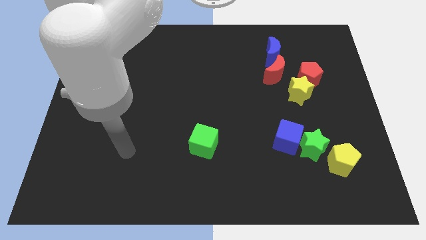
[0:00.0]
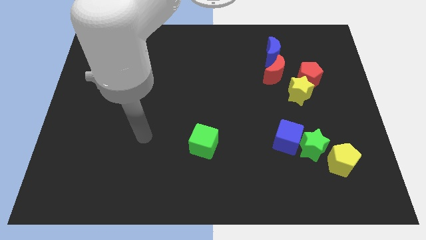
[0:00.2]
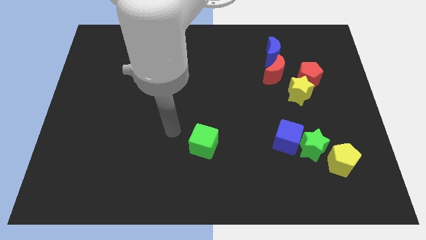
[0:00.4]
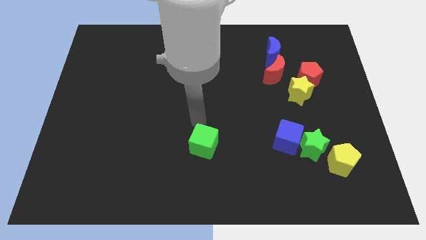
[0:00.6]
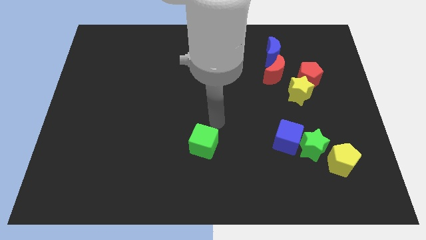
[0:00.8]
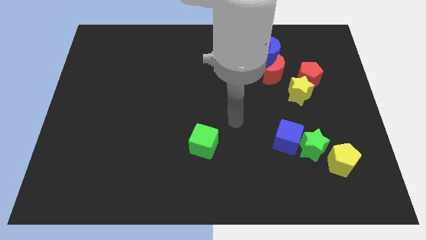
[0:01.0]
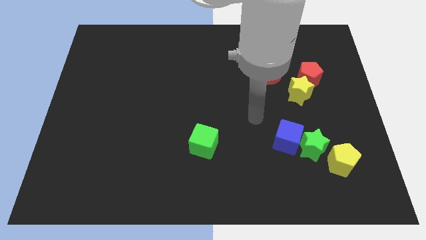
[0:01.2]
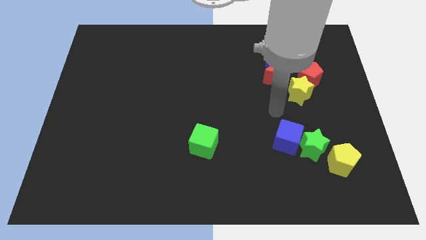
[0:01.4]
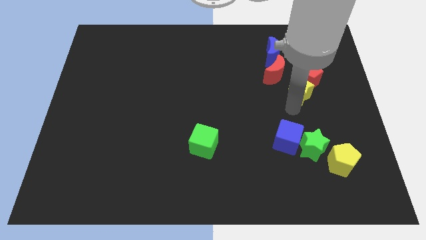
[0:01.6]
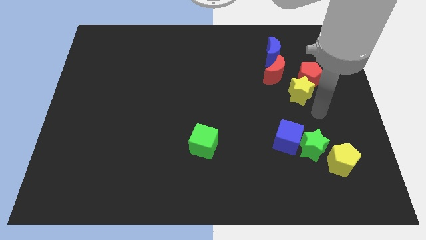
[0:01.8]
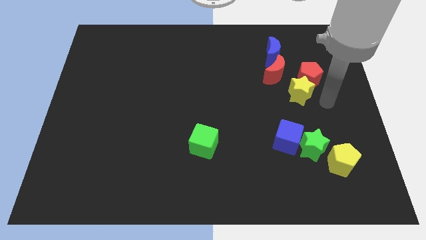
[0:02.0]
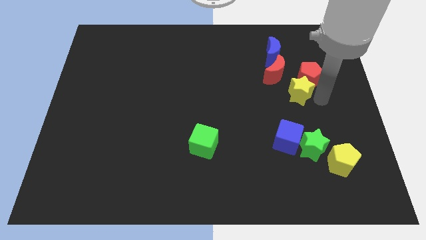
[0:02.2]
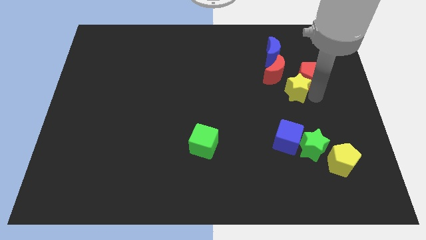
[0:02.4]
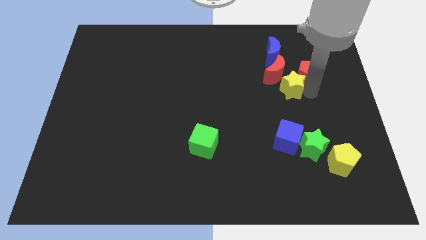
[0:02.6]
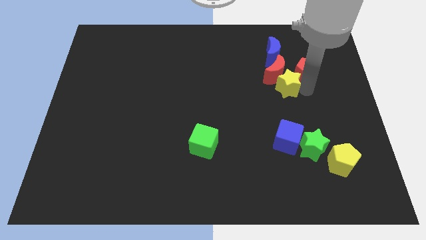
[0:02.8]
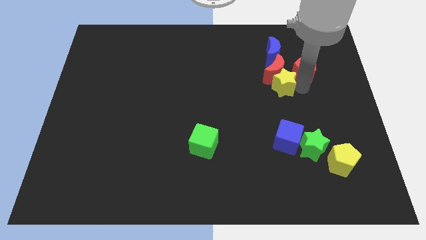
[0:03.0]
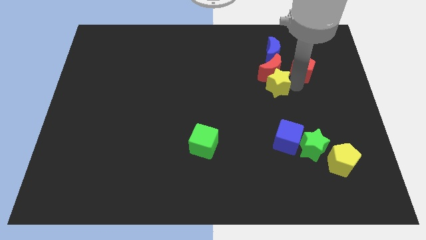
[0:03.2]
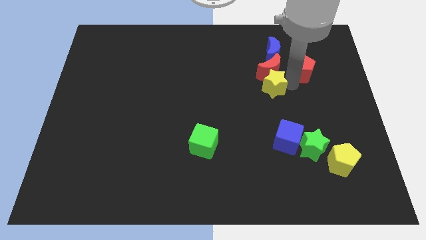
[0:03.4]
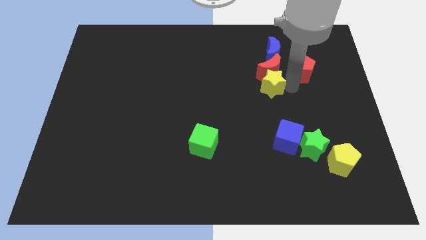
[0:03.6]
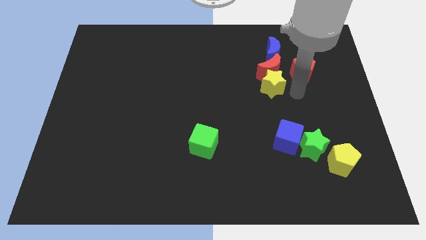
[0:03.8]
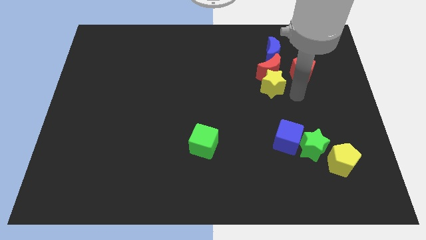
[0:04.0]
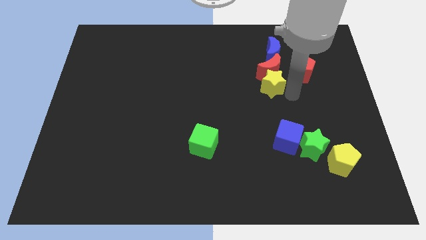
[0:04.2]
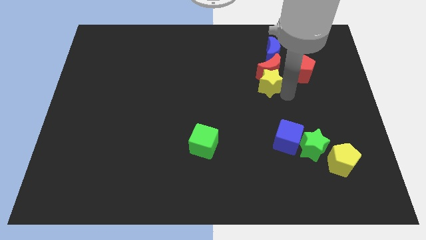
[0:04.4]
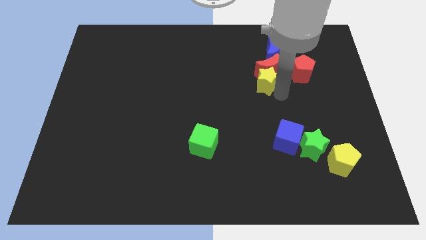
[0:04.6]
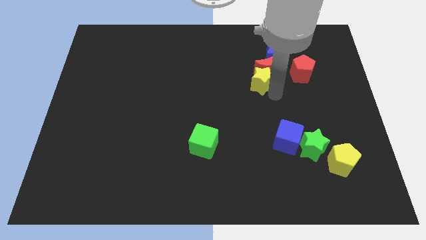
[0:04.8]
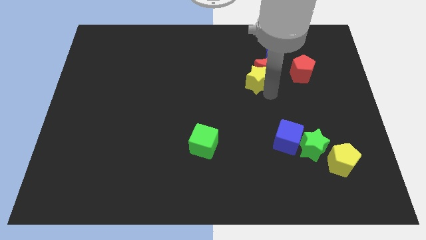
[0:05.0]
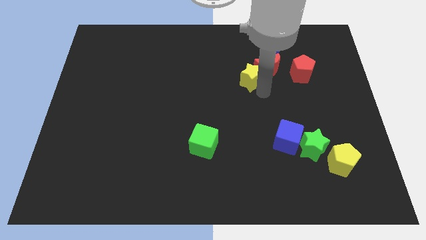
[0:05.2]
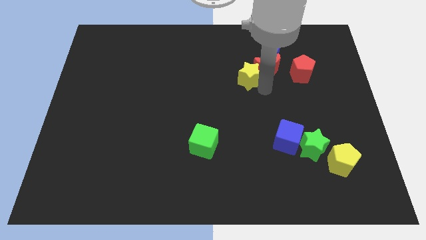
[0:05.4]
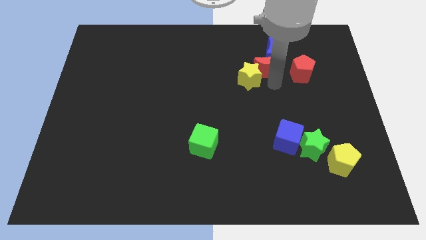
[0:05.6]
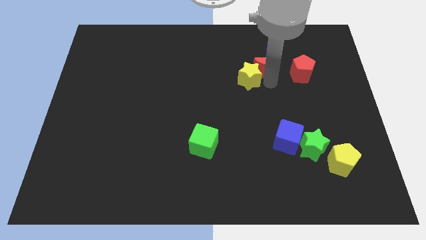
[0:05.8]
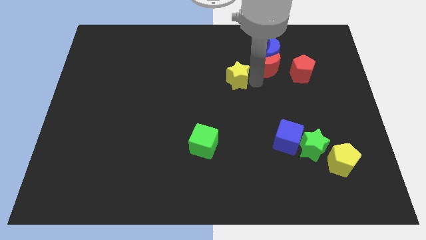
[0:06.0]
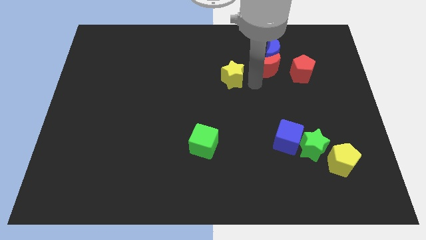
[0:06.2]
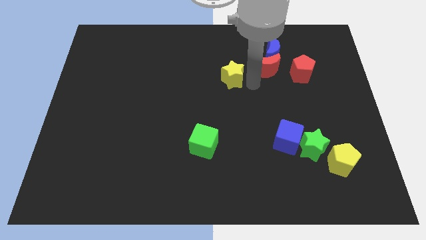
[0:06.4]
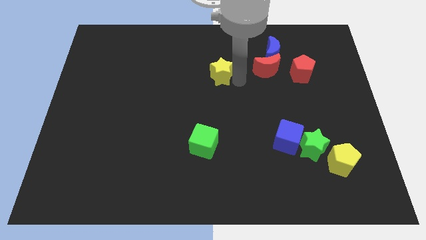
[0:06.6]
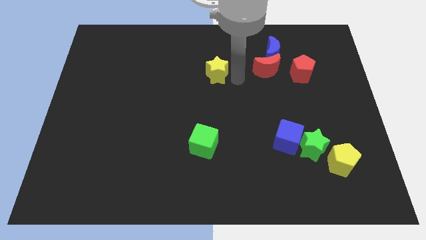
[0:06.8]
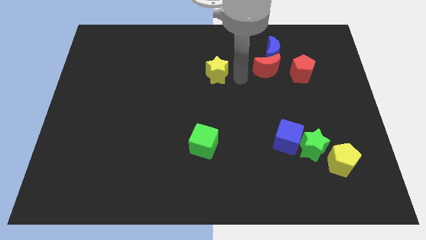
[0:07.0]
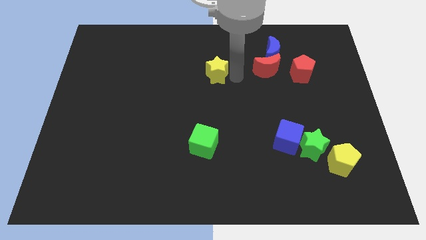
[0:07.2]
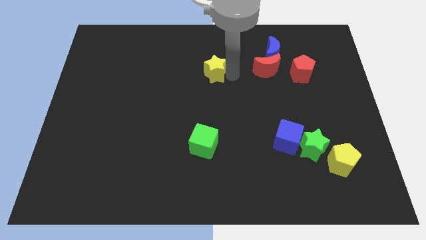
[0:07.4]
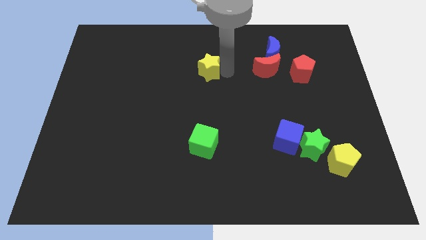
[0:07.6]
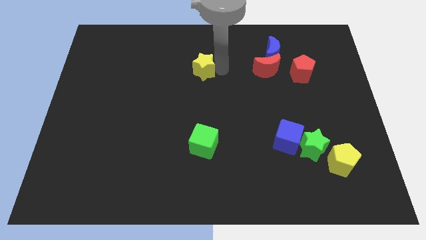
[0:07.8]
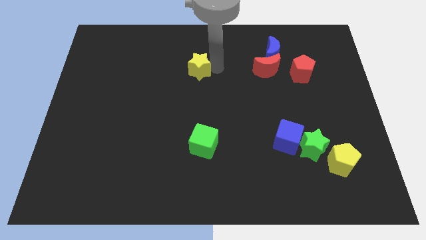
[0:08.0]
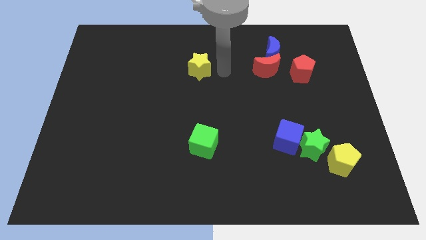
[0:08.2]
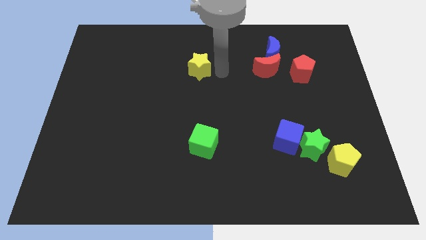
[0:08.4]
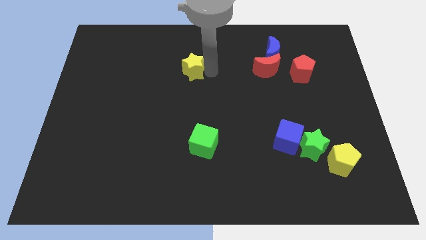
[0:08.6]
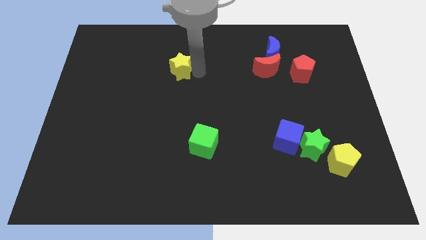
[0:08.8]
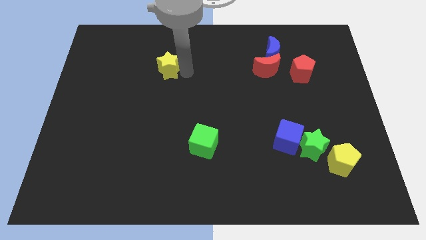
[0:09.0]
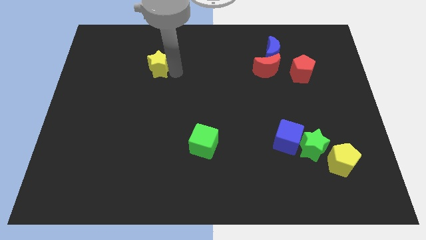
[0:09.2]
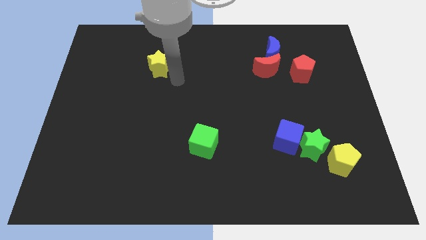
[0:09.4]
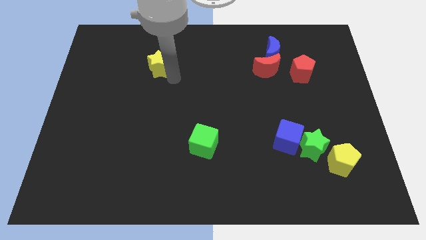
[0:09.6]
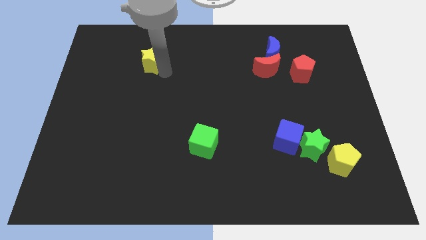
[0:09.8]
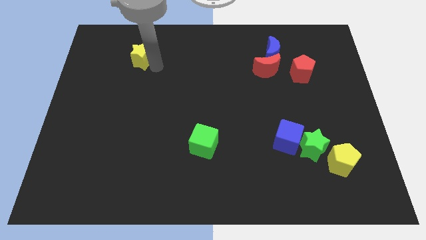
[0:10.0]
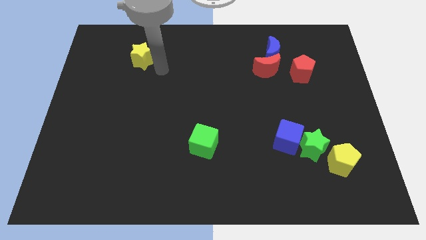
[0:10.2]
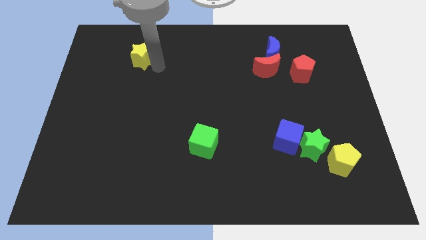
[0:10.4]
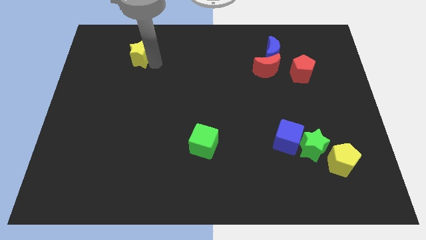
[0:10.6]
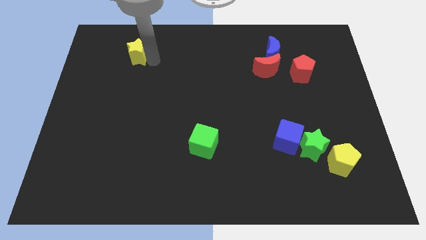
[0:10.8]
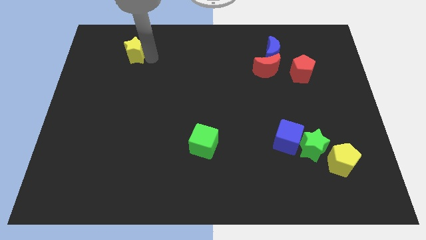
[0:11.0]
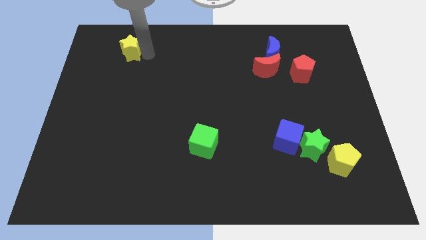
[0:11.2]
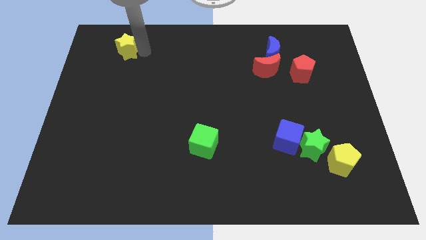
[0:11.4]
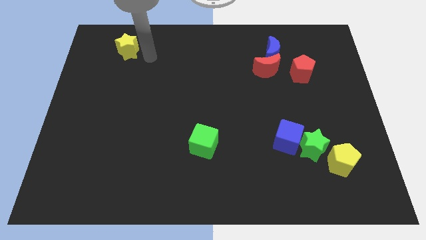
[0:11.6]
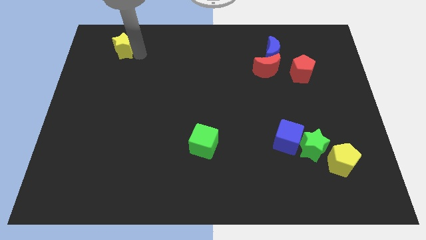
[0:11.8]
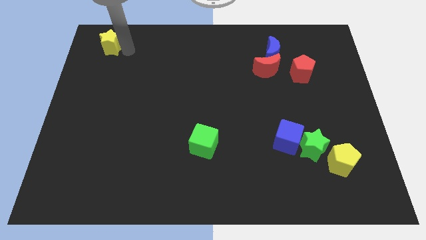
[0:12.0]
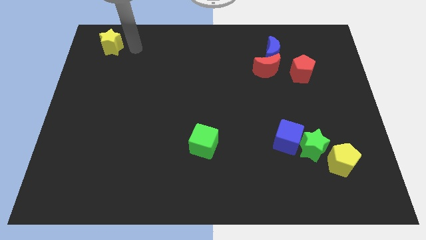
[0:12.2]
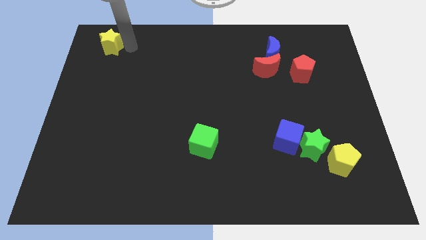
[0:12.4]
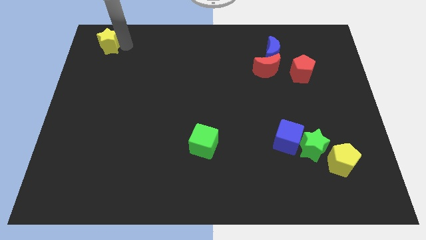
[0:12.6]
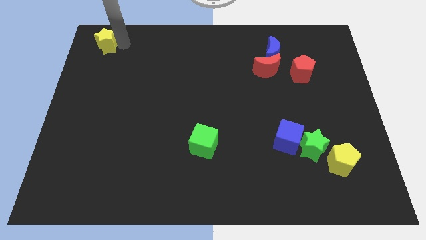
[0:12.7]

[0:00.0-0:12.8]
put the yellow star to the top left corner
